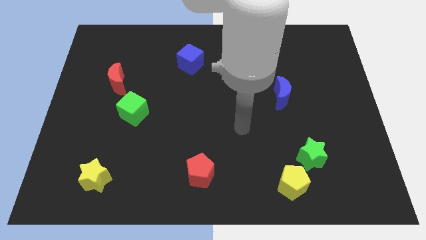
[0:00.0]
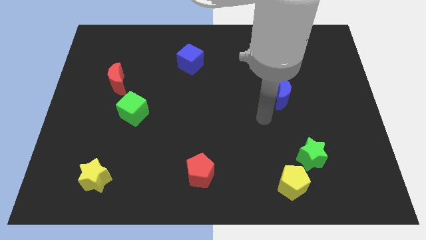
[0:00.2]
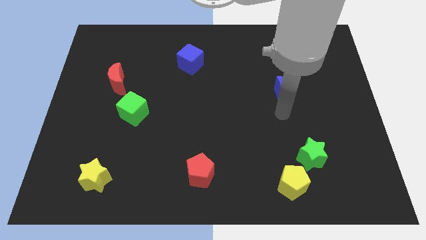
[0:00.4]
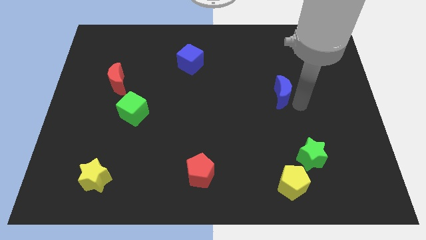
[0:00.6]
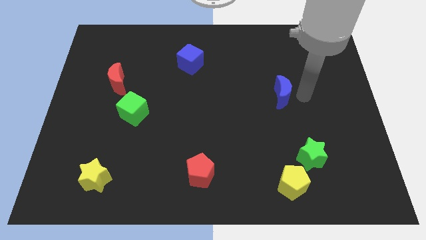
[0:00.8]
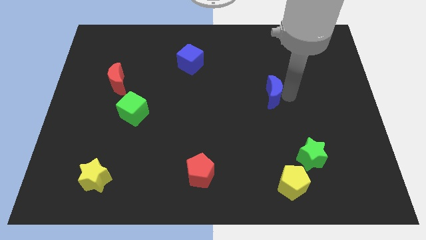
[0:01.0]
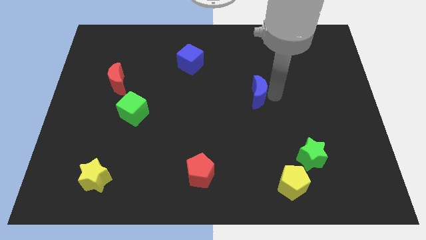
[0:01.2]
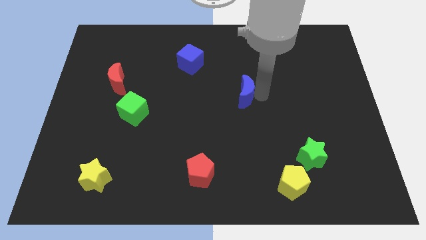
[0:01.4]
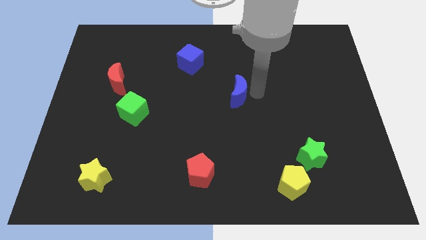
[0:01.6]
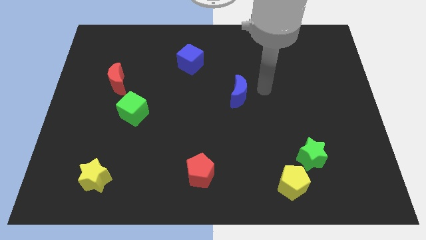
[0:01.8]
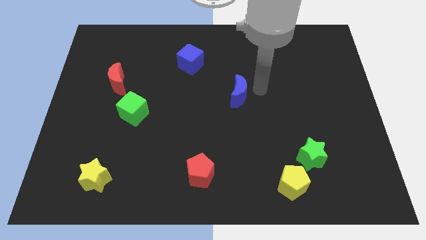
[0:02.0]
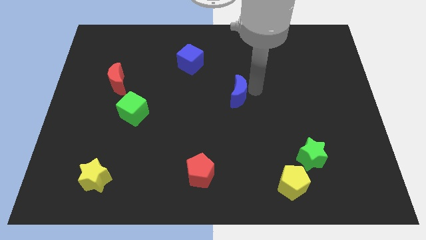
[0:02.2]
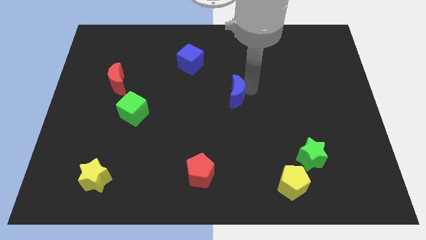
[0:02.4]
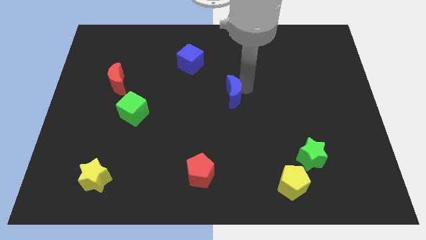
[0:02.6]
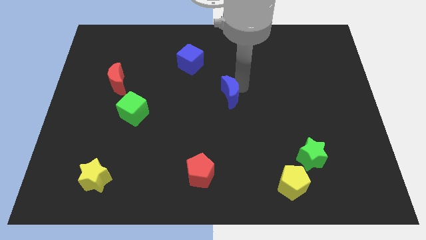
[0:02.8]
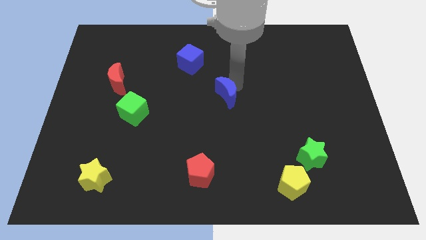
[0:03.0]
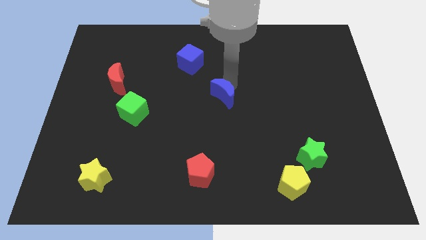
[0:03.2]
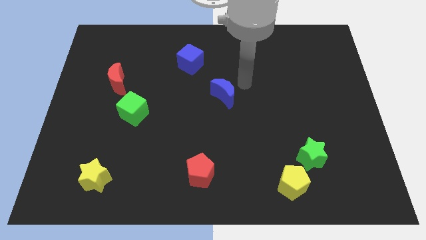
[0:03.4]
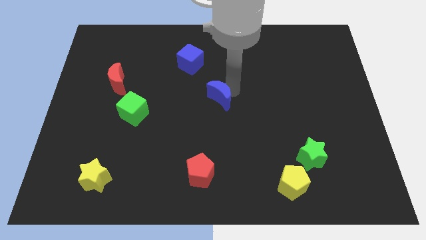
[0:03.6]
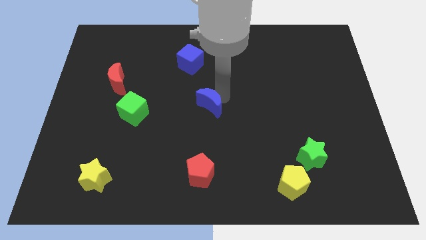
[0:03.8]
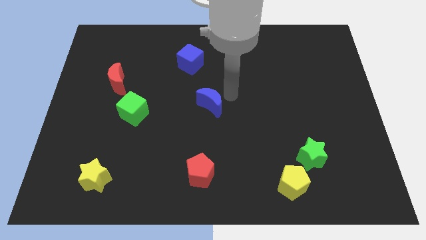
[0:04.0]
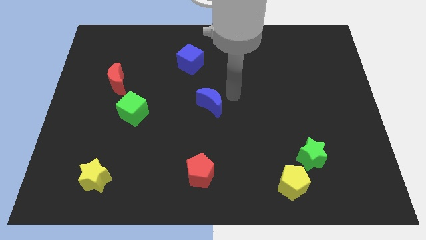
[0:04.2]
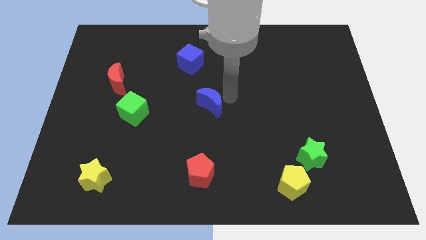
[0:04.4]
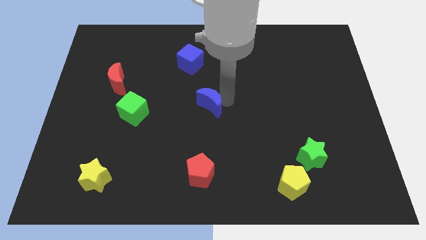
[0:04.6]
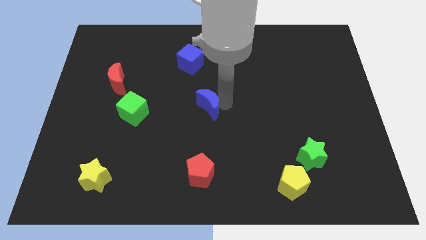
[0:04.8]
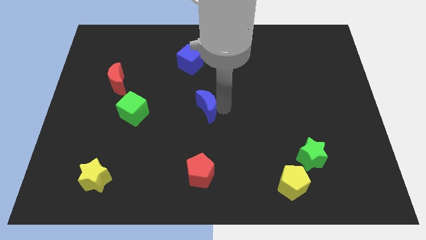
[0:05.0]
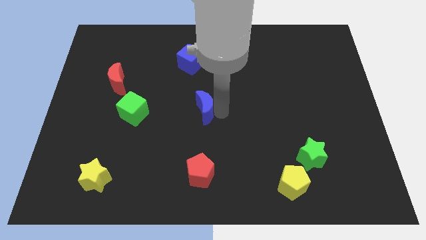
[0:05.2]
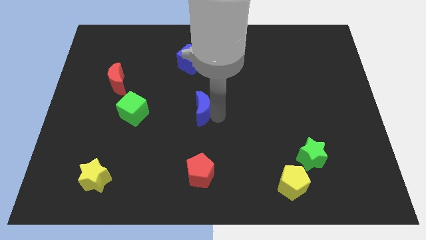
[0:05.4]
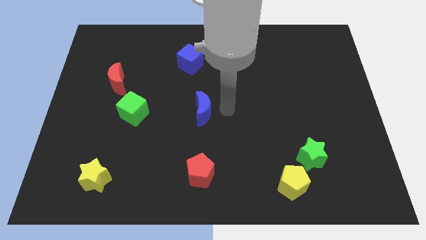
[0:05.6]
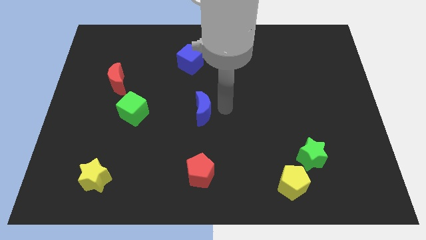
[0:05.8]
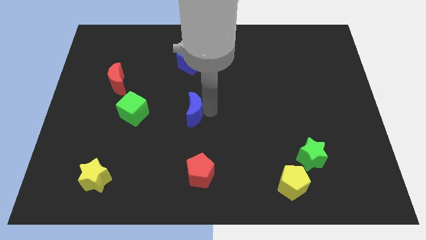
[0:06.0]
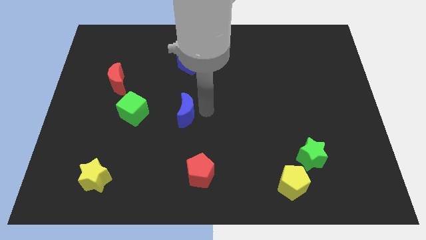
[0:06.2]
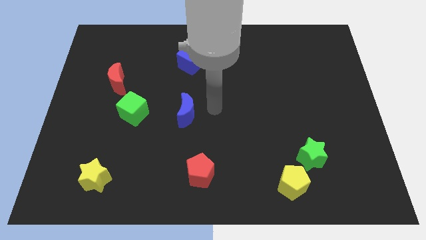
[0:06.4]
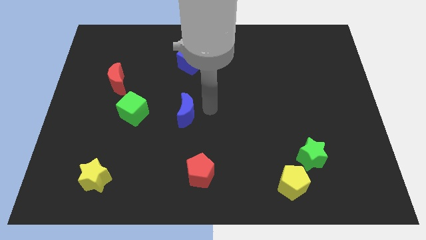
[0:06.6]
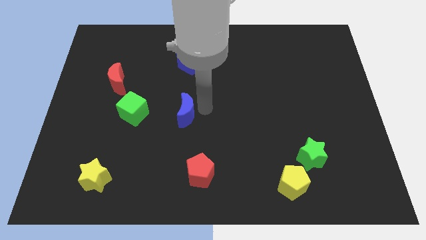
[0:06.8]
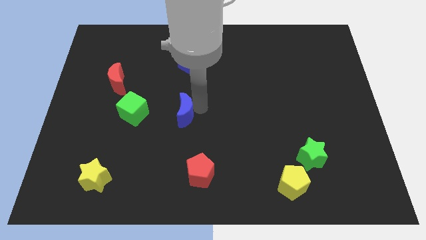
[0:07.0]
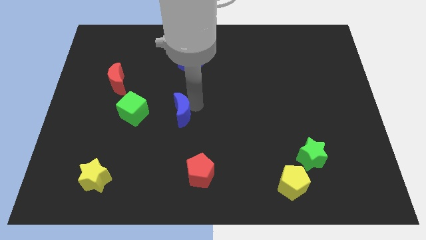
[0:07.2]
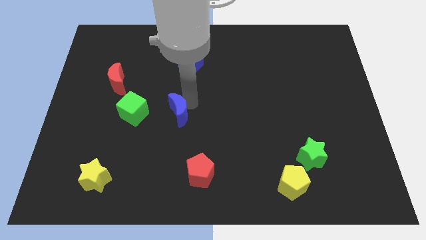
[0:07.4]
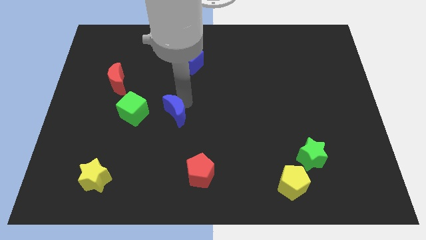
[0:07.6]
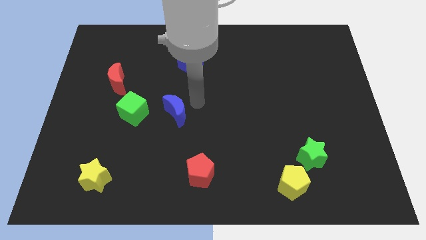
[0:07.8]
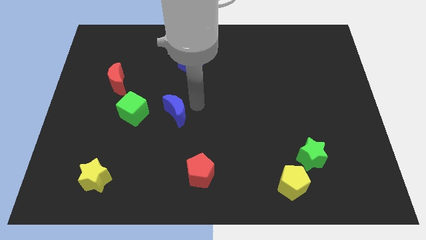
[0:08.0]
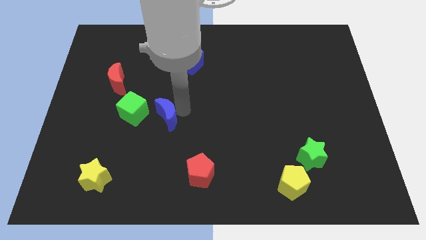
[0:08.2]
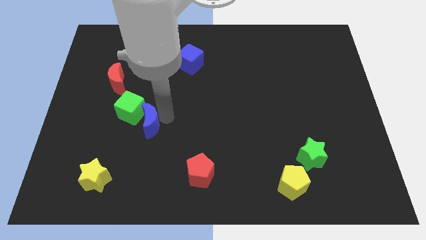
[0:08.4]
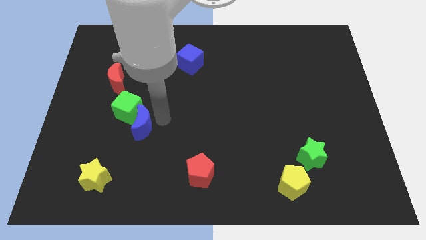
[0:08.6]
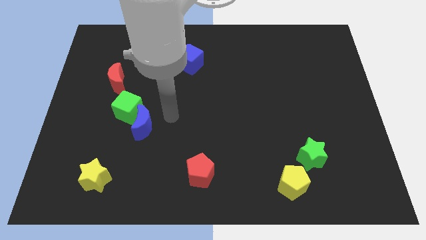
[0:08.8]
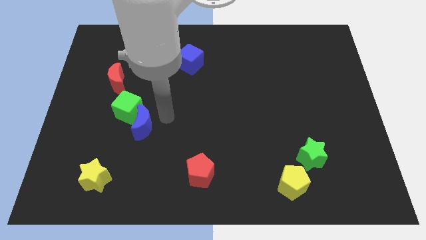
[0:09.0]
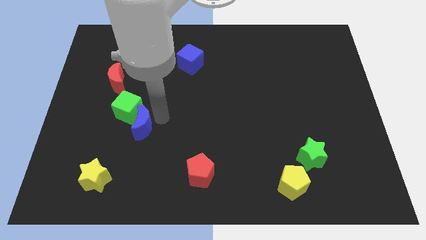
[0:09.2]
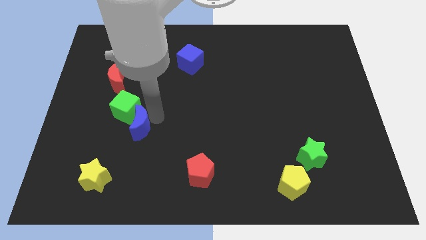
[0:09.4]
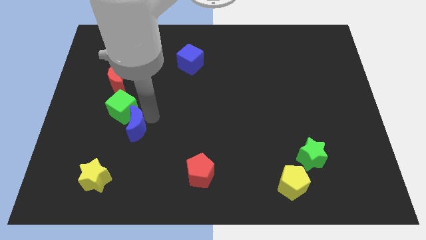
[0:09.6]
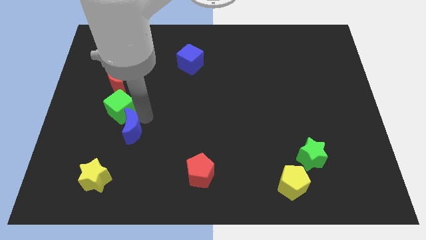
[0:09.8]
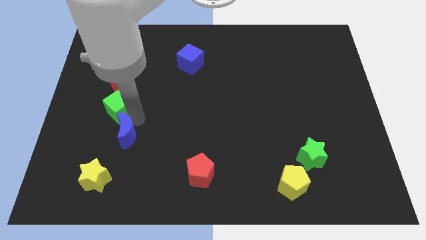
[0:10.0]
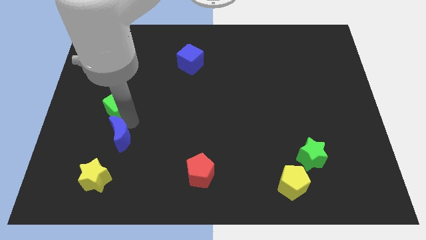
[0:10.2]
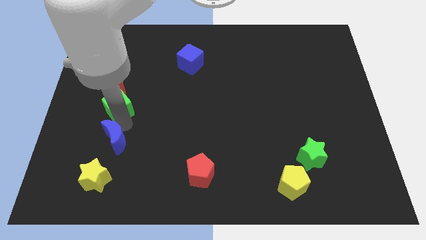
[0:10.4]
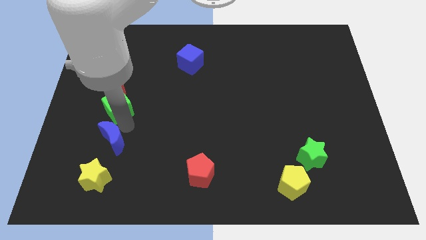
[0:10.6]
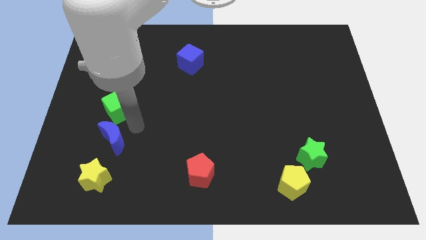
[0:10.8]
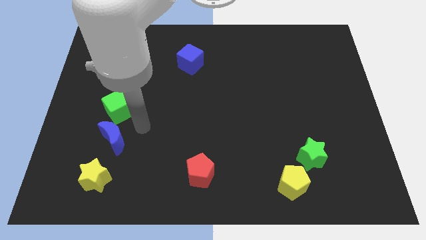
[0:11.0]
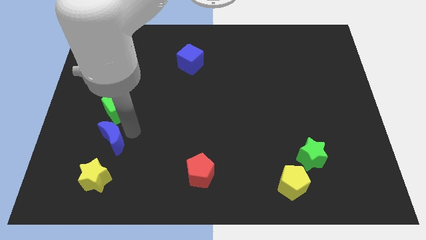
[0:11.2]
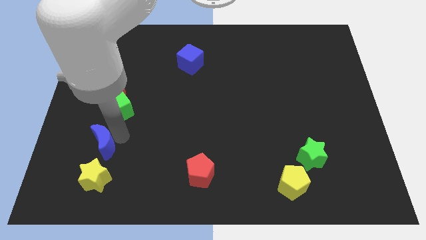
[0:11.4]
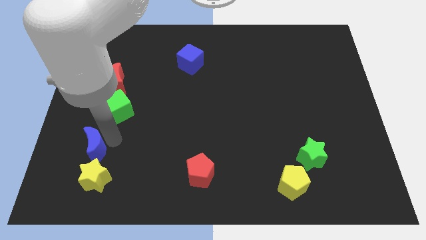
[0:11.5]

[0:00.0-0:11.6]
slide the blue moon to the top left side of the yellow star

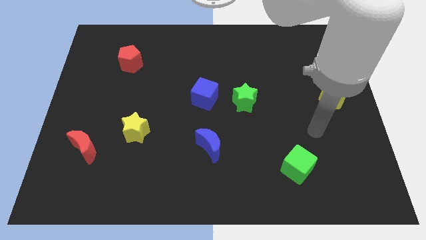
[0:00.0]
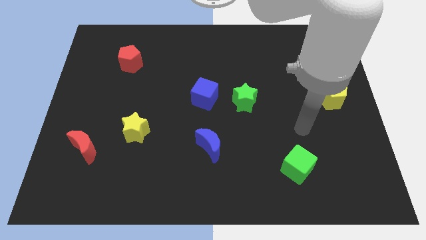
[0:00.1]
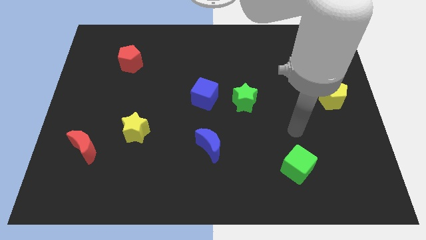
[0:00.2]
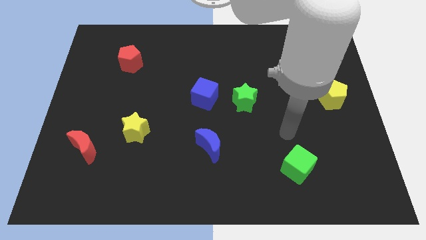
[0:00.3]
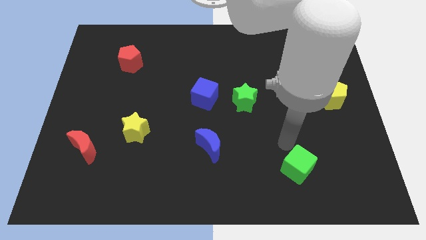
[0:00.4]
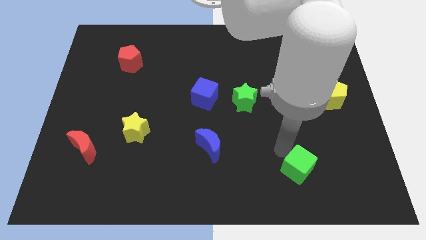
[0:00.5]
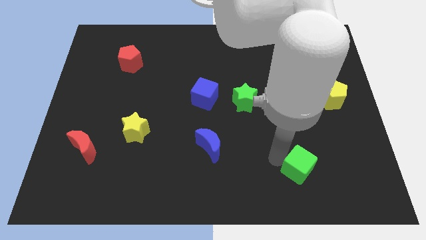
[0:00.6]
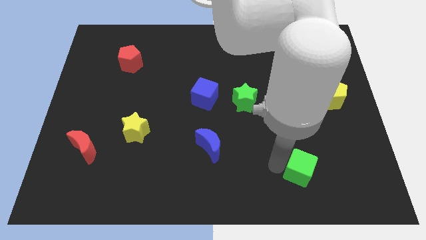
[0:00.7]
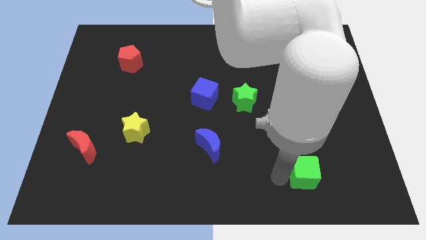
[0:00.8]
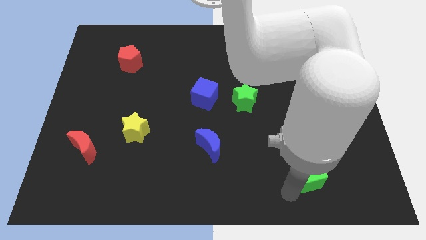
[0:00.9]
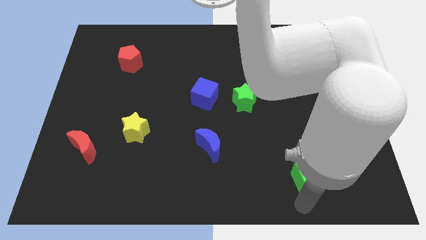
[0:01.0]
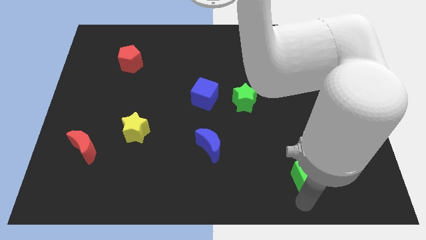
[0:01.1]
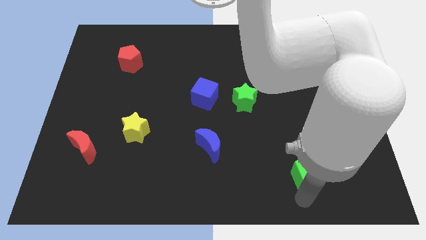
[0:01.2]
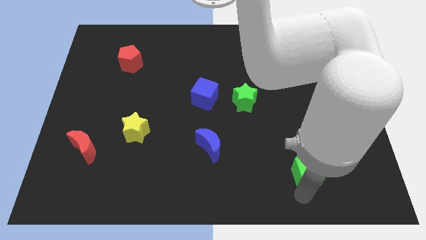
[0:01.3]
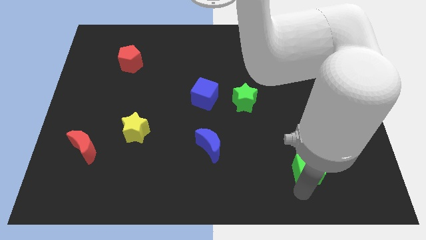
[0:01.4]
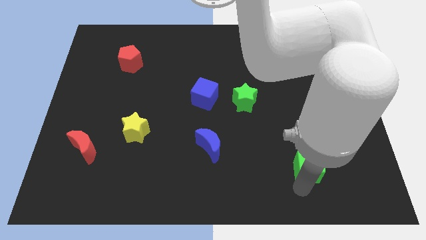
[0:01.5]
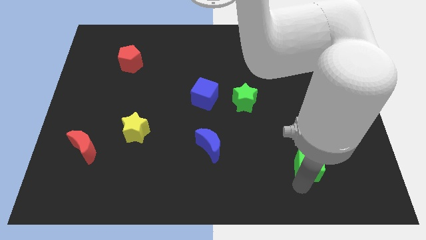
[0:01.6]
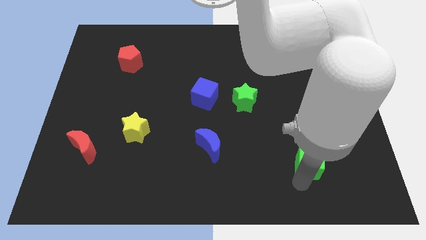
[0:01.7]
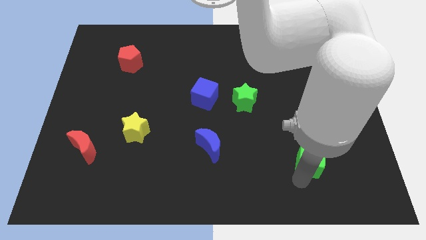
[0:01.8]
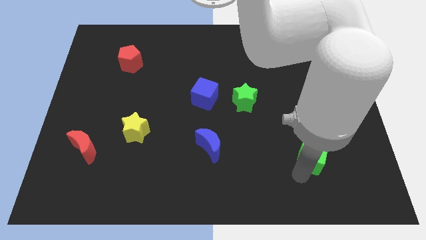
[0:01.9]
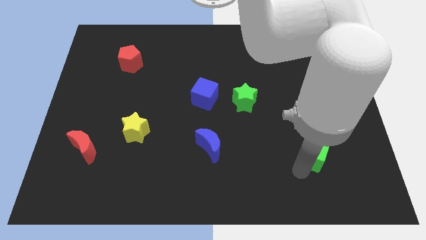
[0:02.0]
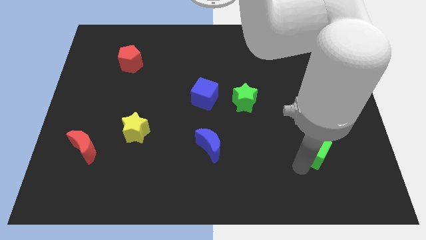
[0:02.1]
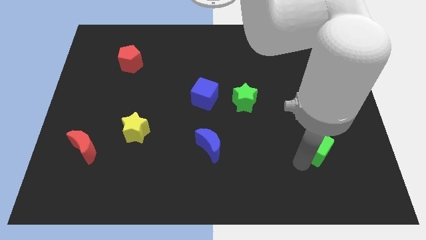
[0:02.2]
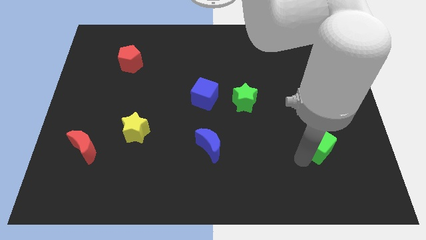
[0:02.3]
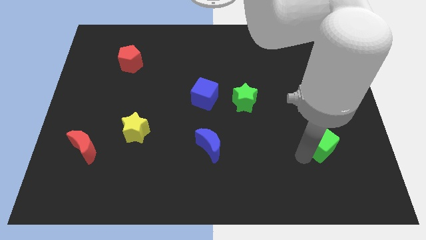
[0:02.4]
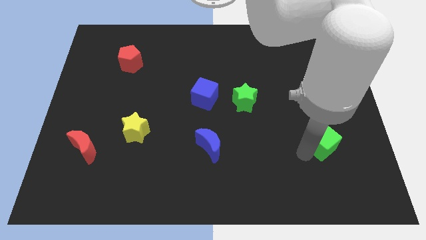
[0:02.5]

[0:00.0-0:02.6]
move the green cube to the bottom of the yellow pentagon
